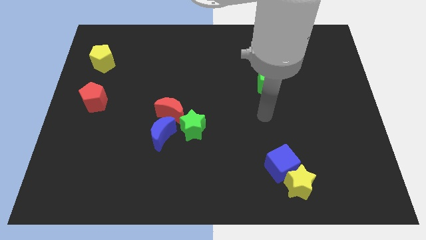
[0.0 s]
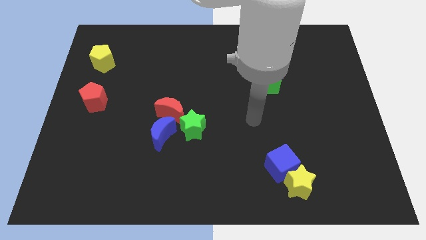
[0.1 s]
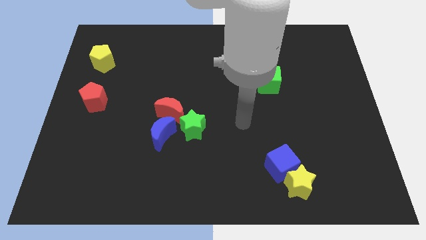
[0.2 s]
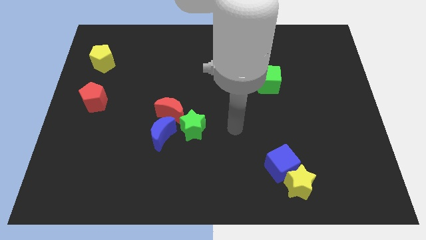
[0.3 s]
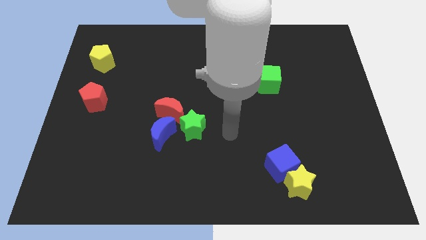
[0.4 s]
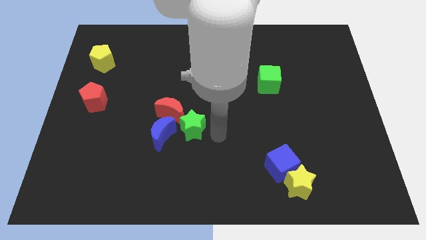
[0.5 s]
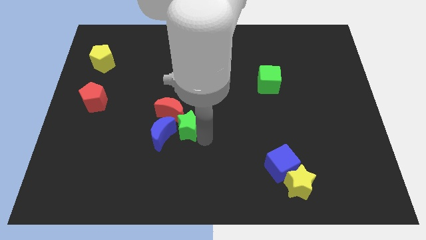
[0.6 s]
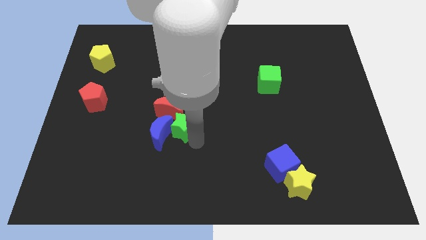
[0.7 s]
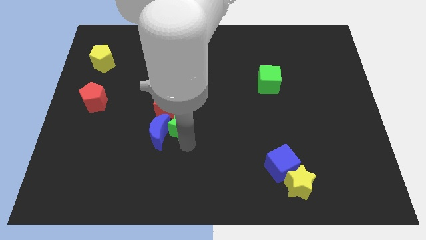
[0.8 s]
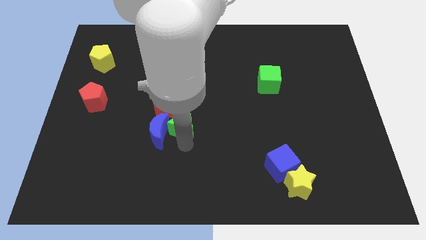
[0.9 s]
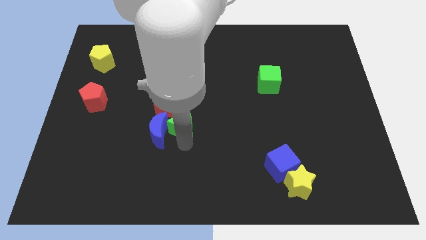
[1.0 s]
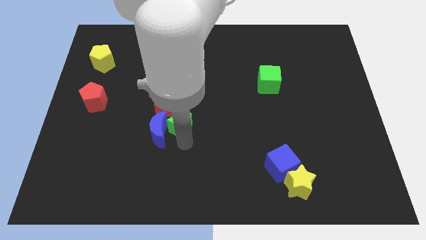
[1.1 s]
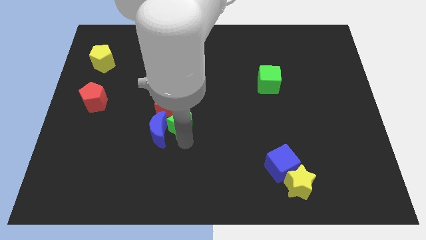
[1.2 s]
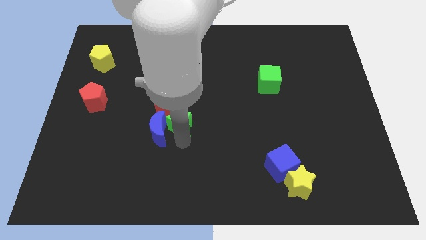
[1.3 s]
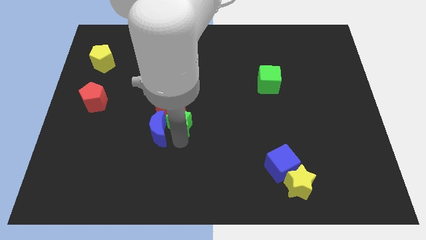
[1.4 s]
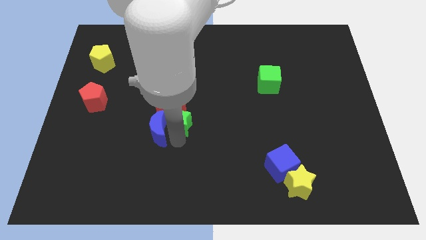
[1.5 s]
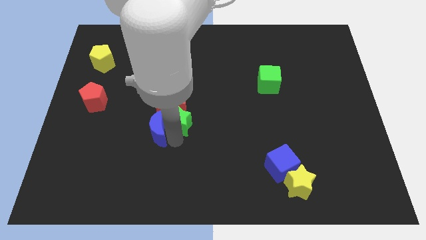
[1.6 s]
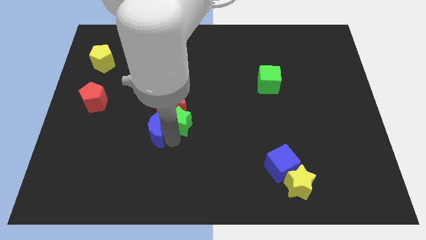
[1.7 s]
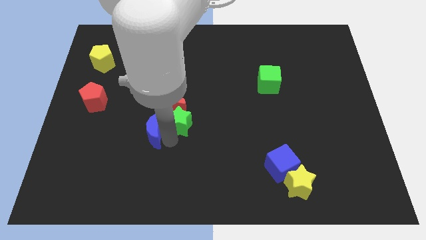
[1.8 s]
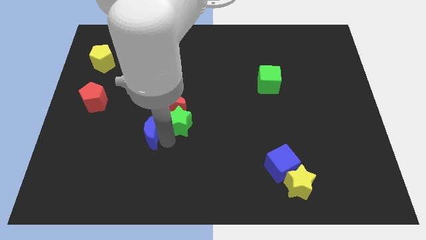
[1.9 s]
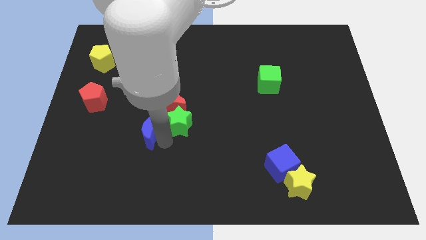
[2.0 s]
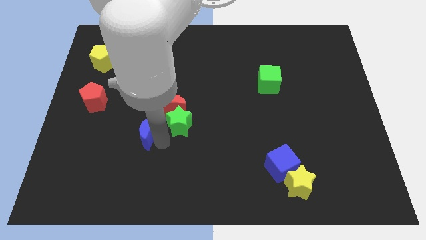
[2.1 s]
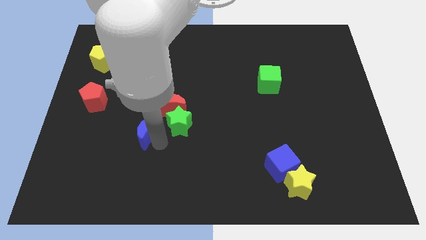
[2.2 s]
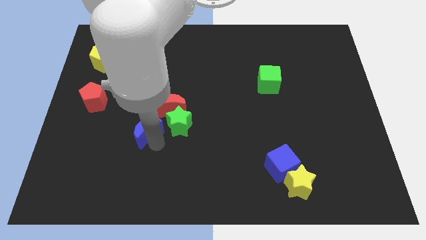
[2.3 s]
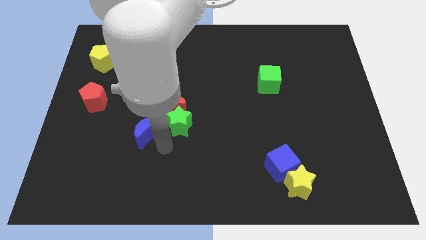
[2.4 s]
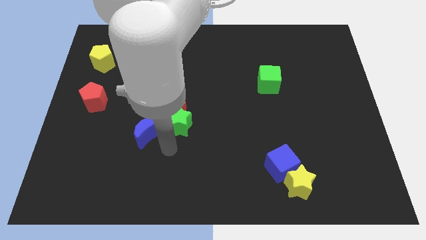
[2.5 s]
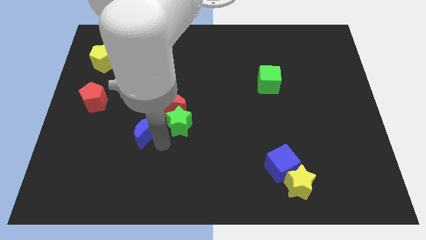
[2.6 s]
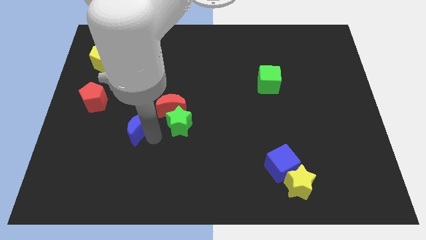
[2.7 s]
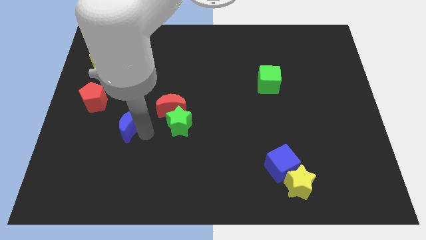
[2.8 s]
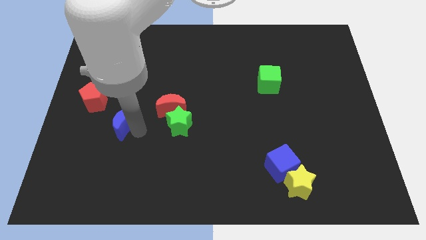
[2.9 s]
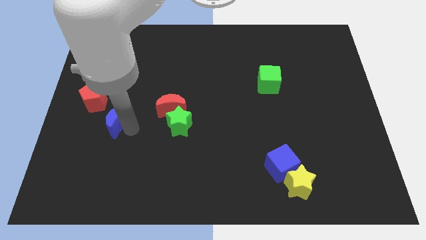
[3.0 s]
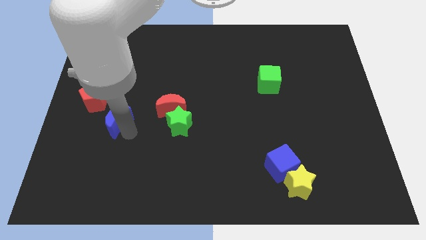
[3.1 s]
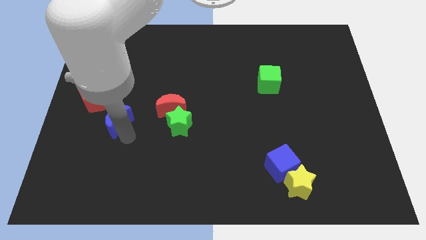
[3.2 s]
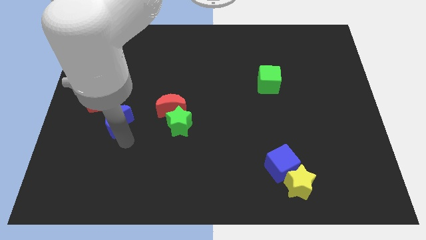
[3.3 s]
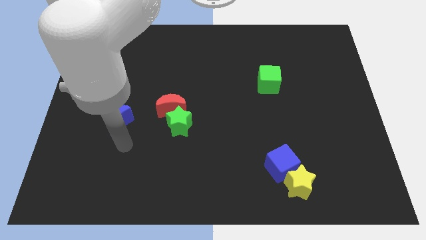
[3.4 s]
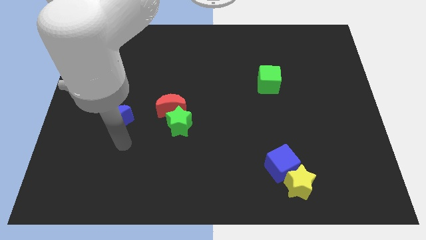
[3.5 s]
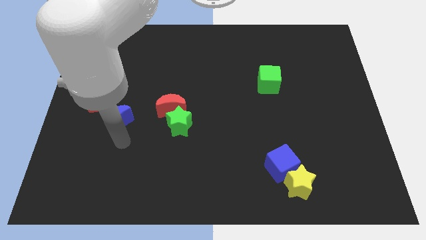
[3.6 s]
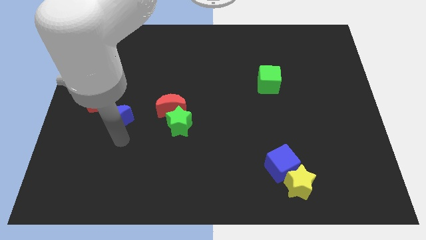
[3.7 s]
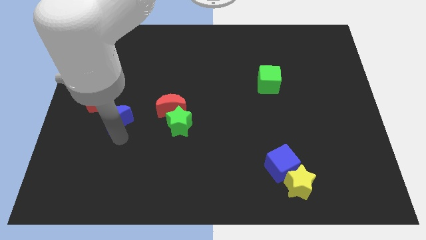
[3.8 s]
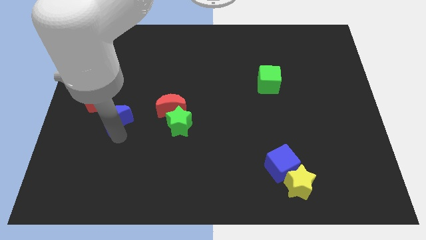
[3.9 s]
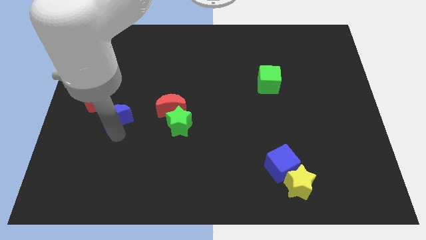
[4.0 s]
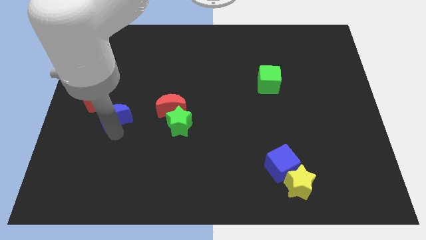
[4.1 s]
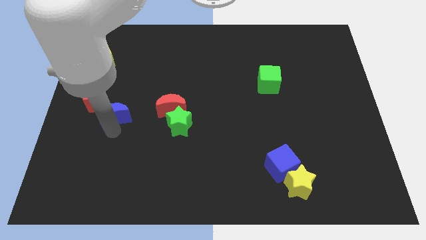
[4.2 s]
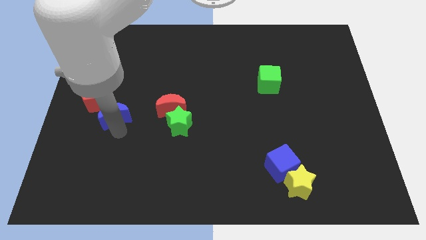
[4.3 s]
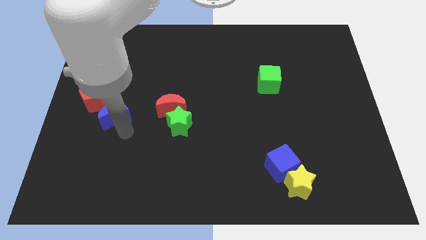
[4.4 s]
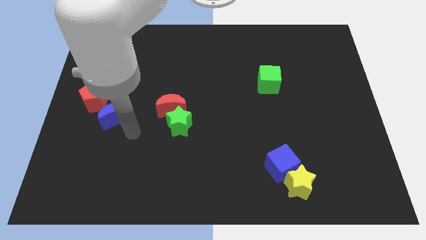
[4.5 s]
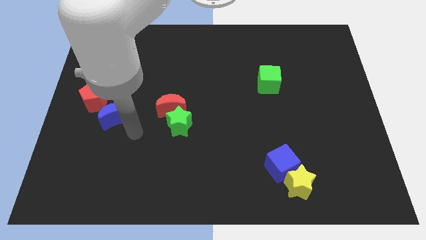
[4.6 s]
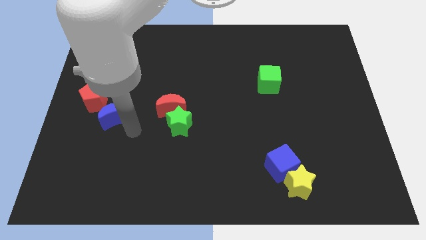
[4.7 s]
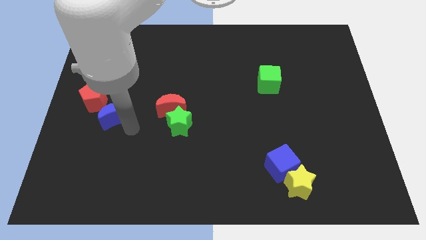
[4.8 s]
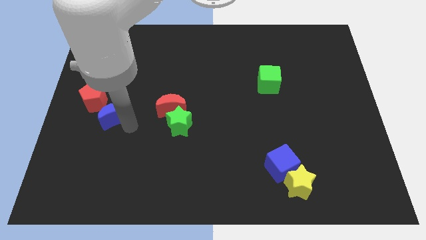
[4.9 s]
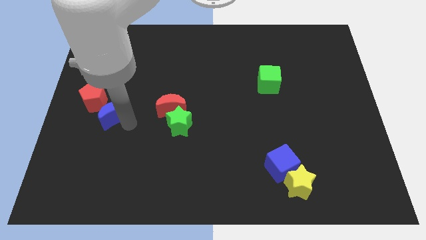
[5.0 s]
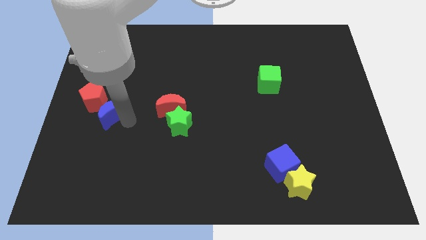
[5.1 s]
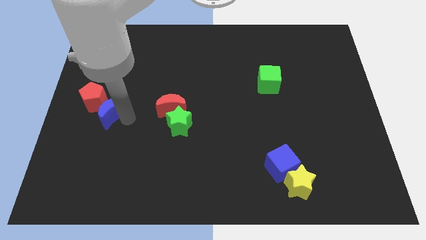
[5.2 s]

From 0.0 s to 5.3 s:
put the blue moon towards the red pentagon

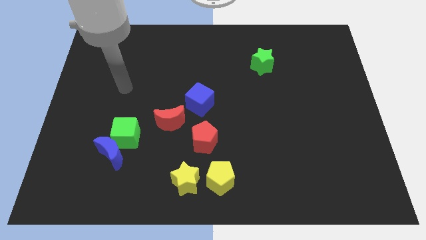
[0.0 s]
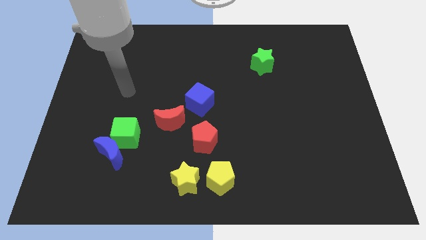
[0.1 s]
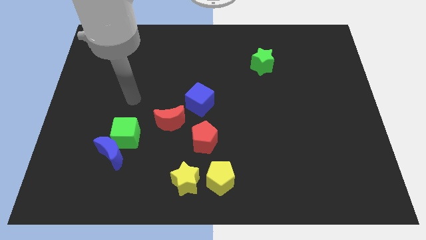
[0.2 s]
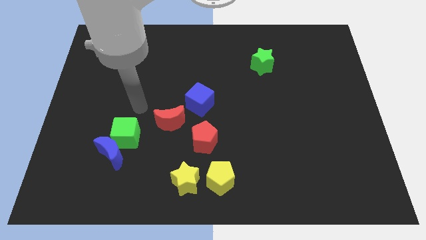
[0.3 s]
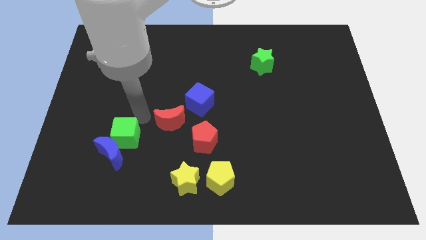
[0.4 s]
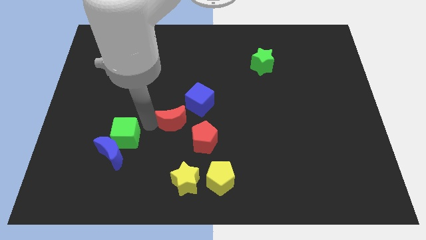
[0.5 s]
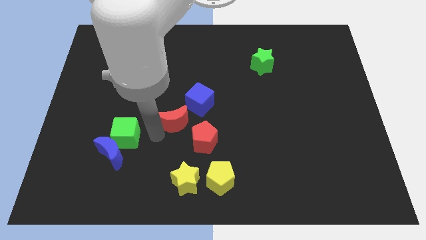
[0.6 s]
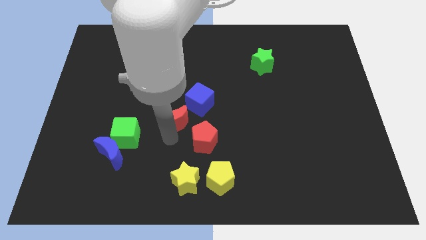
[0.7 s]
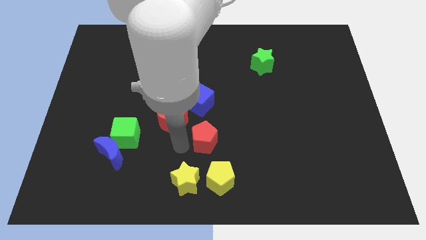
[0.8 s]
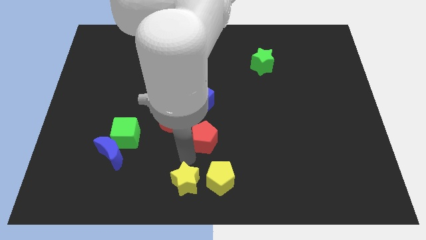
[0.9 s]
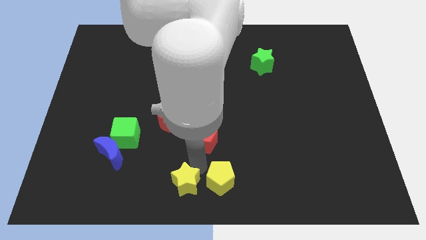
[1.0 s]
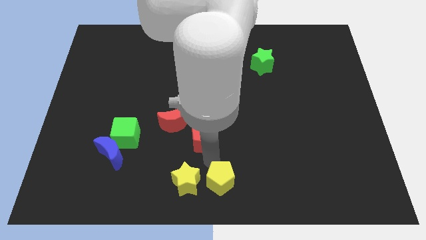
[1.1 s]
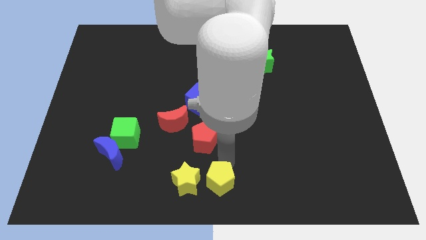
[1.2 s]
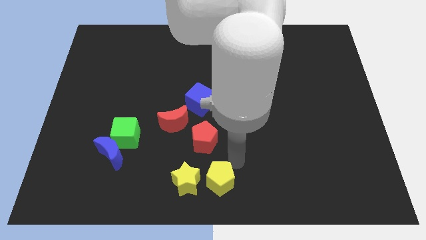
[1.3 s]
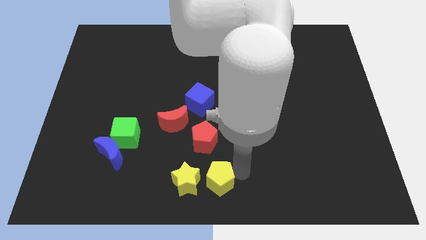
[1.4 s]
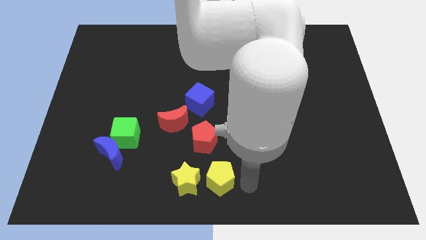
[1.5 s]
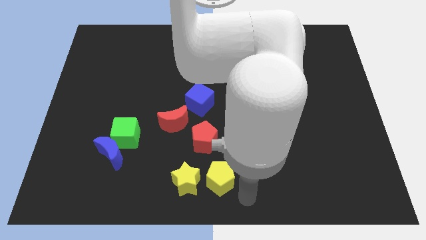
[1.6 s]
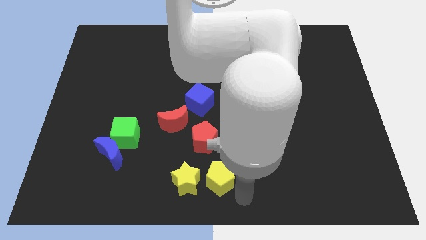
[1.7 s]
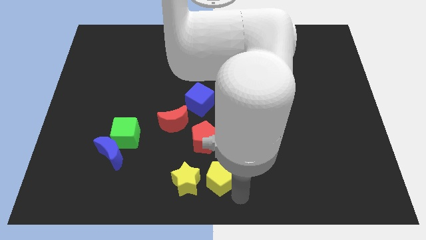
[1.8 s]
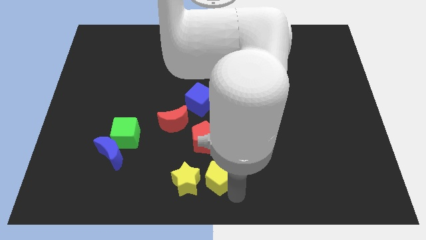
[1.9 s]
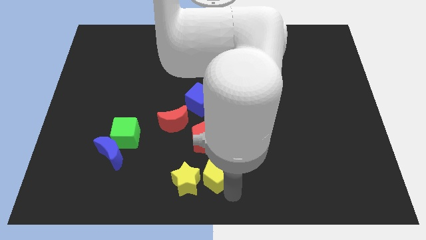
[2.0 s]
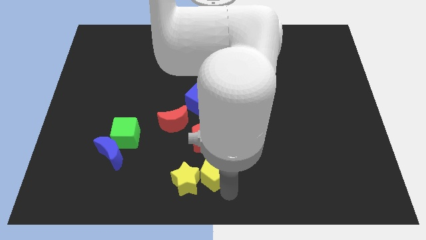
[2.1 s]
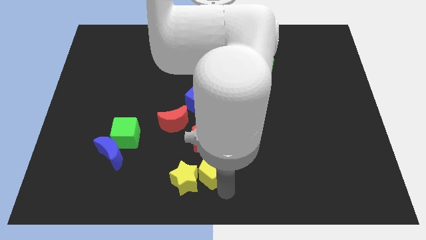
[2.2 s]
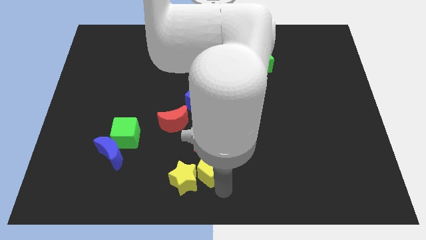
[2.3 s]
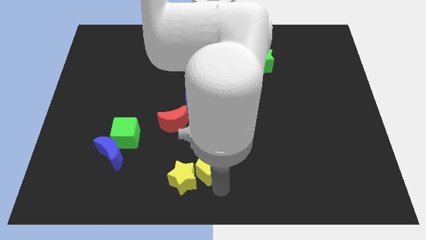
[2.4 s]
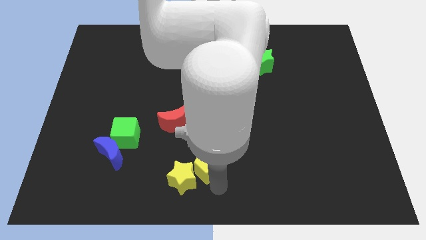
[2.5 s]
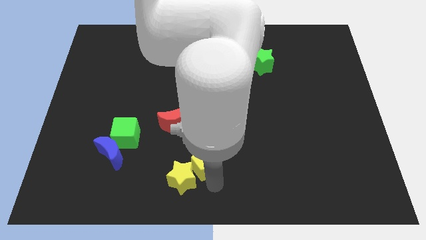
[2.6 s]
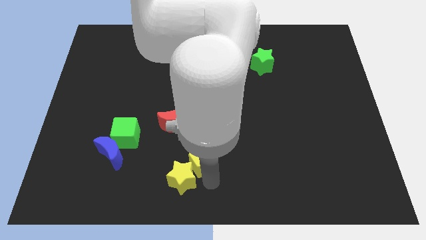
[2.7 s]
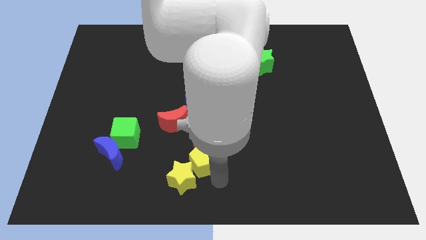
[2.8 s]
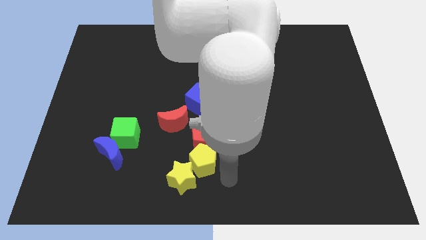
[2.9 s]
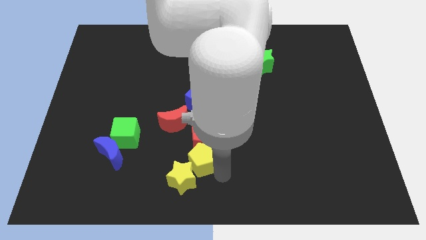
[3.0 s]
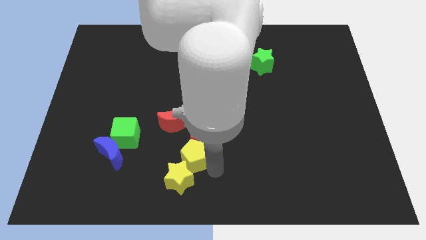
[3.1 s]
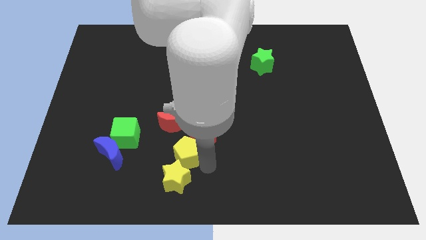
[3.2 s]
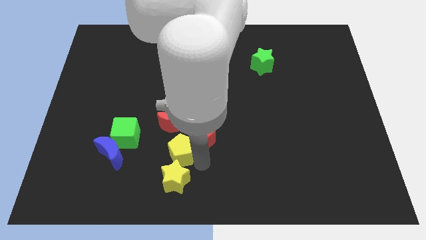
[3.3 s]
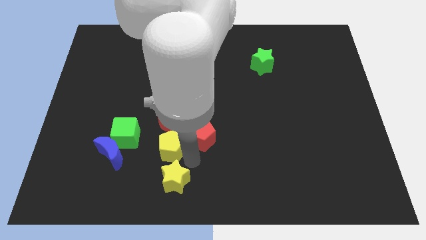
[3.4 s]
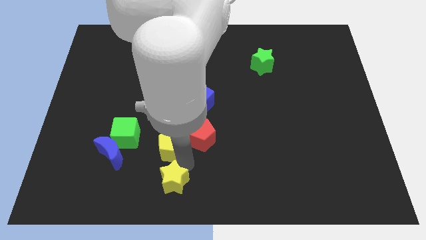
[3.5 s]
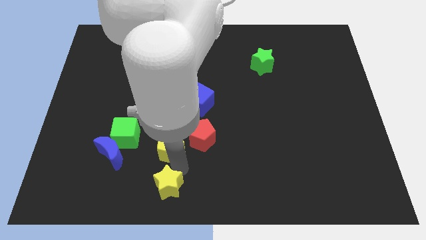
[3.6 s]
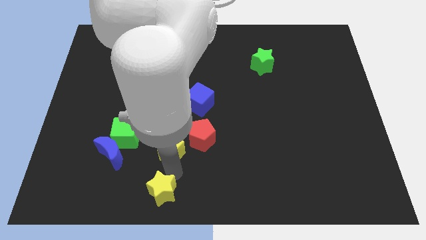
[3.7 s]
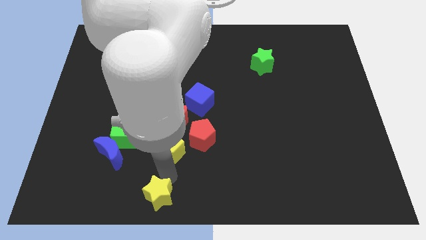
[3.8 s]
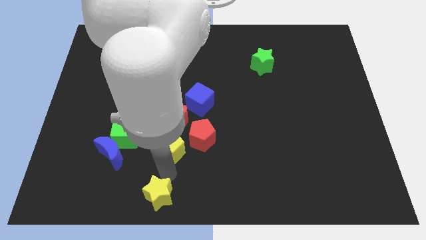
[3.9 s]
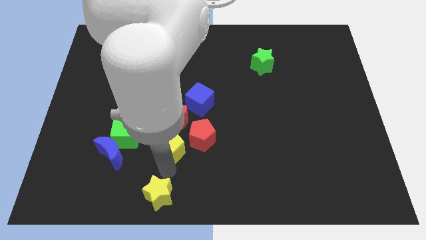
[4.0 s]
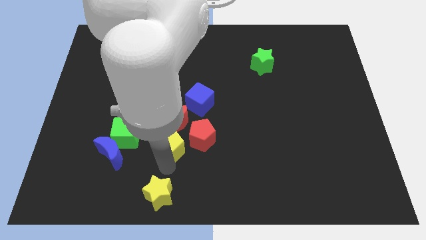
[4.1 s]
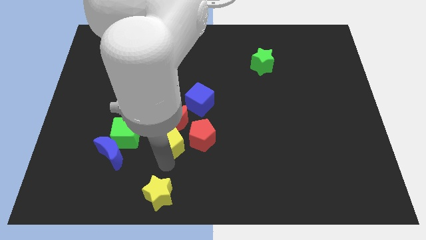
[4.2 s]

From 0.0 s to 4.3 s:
put the yellow pentagon towards the red moon
